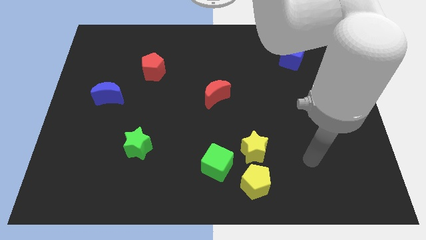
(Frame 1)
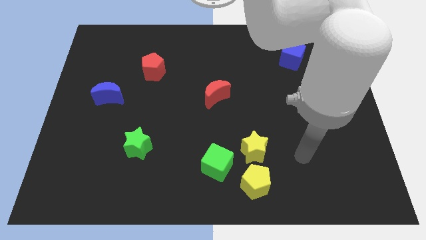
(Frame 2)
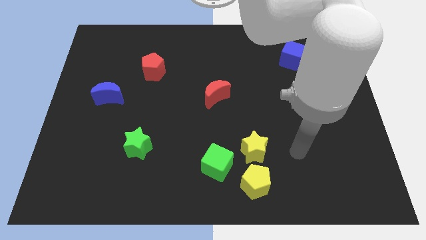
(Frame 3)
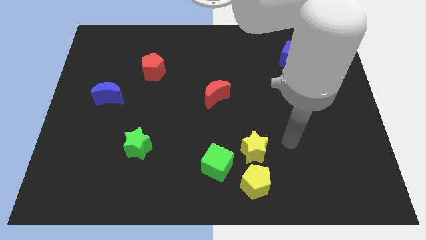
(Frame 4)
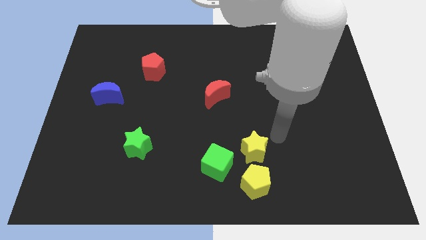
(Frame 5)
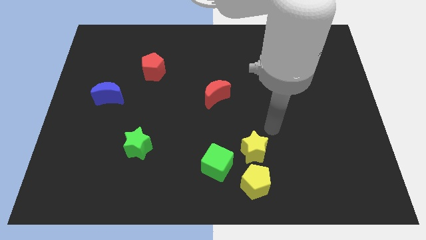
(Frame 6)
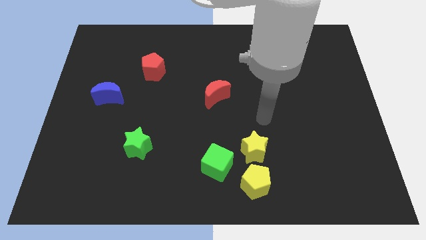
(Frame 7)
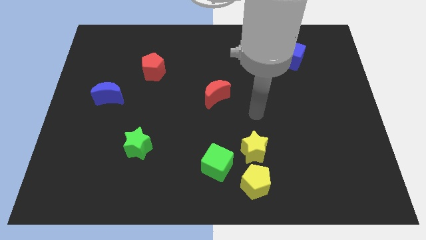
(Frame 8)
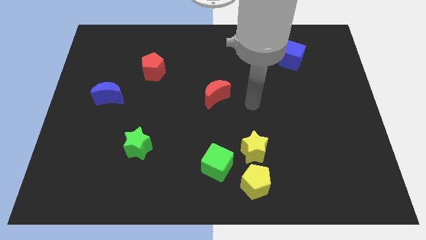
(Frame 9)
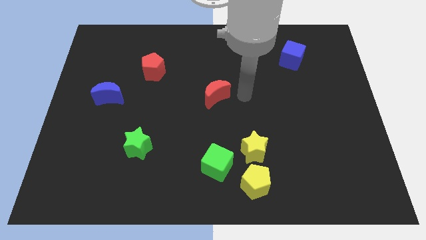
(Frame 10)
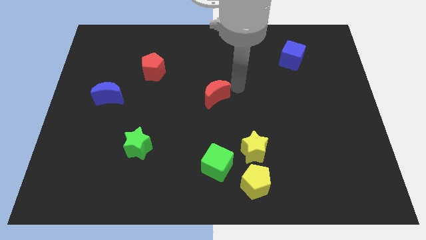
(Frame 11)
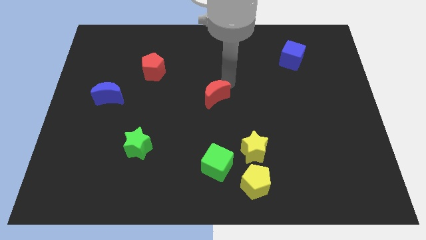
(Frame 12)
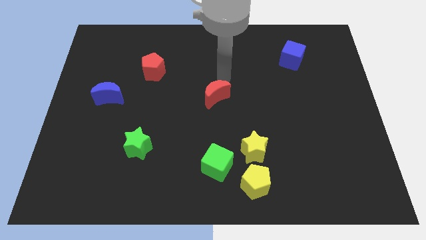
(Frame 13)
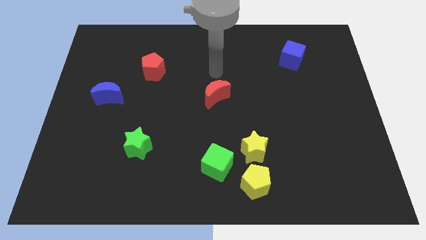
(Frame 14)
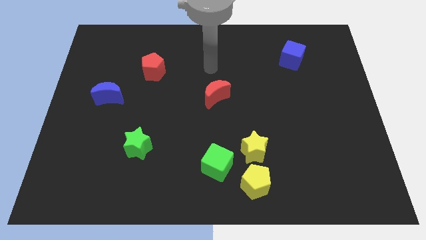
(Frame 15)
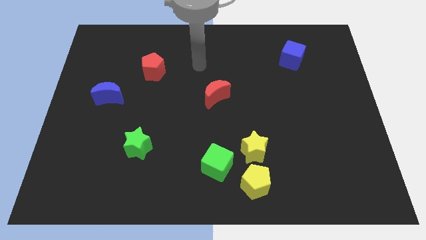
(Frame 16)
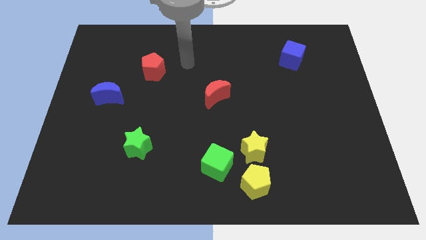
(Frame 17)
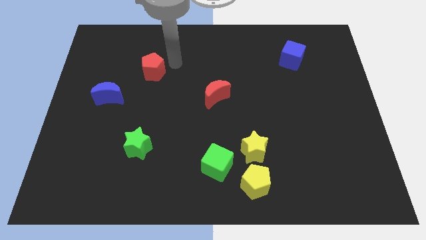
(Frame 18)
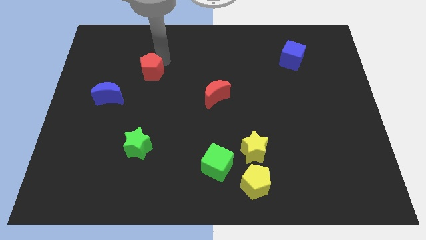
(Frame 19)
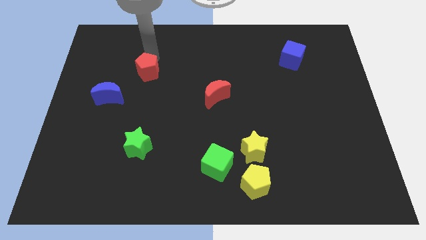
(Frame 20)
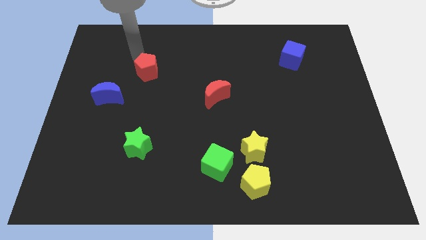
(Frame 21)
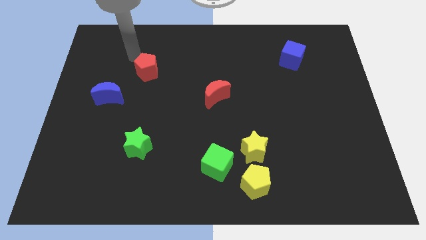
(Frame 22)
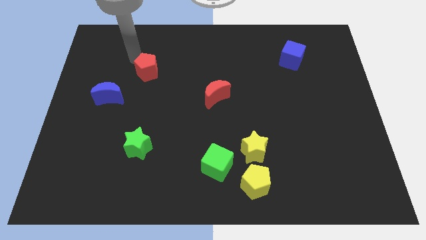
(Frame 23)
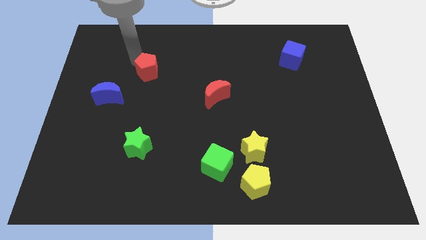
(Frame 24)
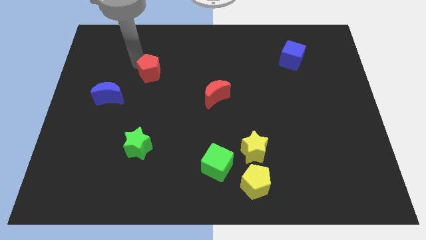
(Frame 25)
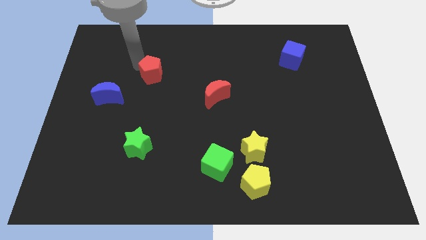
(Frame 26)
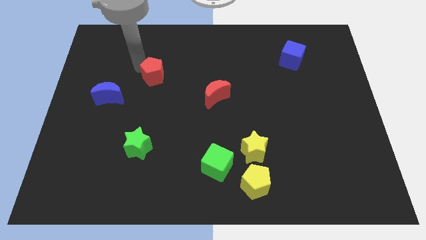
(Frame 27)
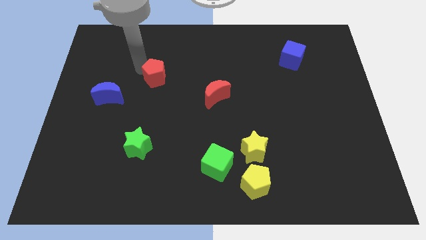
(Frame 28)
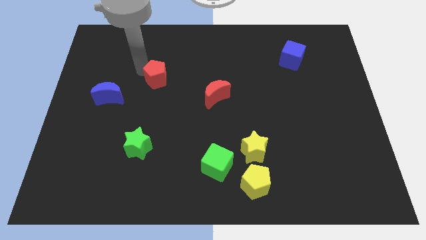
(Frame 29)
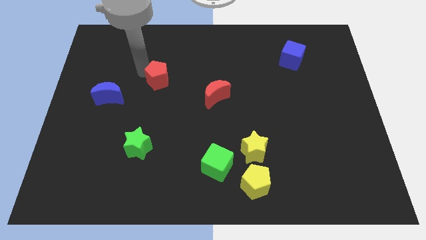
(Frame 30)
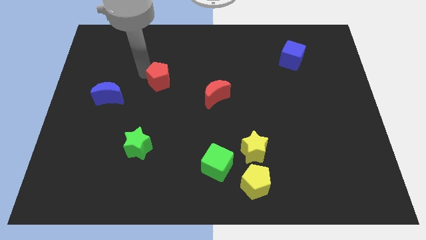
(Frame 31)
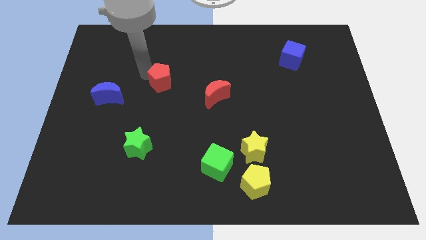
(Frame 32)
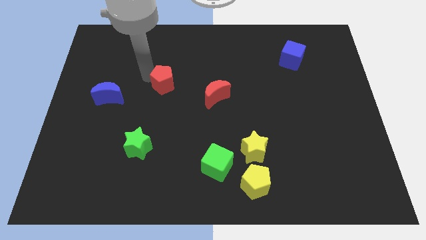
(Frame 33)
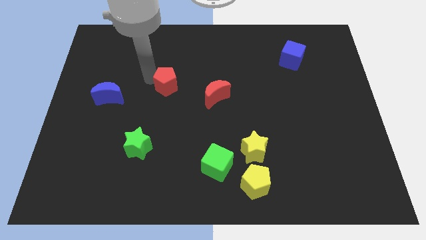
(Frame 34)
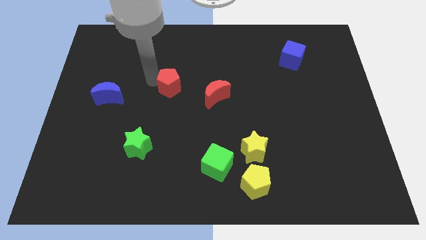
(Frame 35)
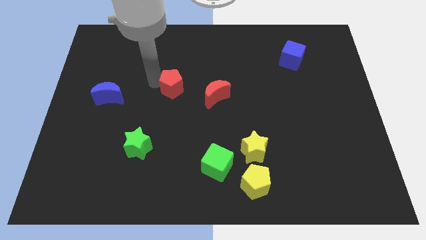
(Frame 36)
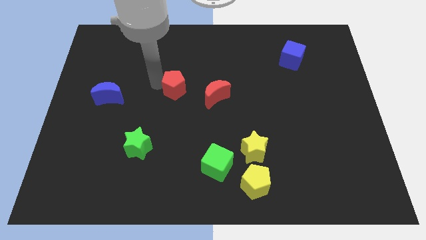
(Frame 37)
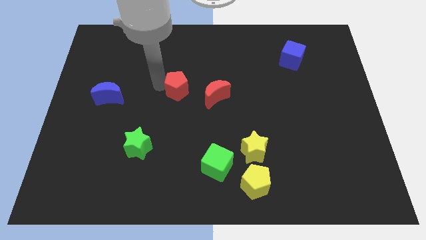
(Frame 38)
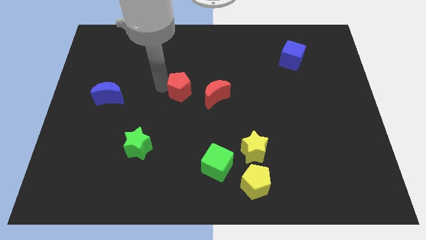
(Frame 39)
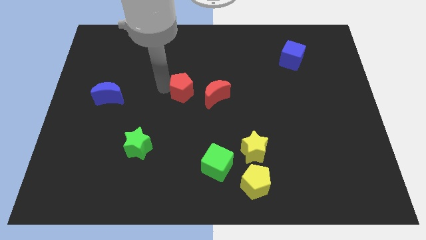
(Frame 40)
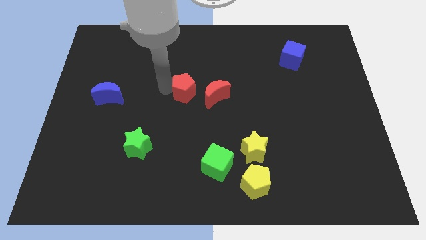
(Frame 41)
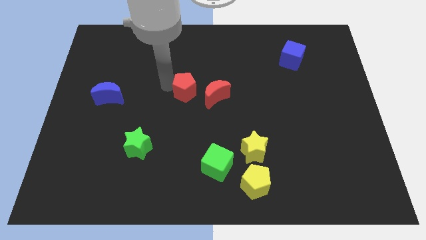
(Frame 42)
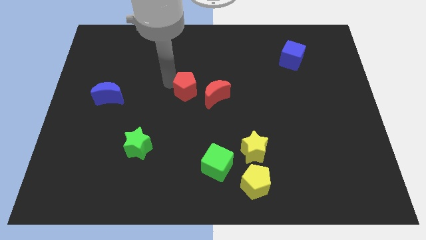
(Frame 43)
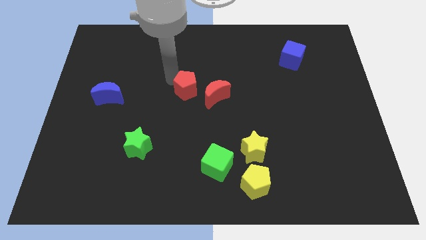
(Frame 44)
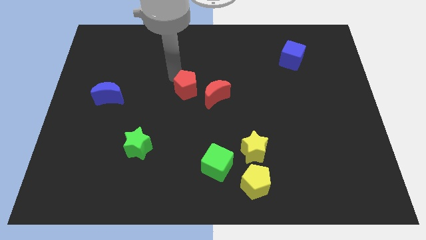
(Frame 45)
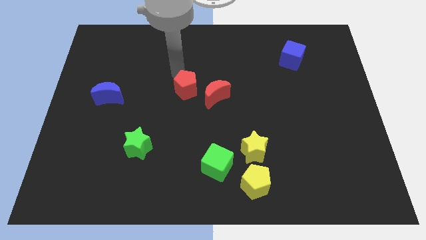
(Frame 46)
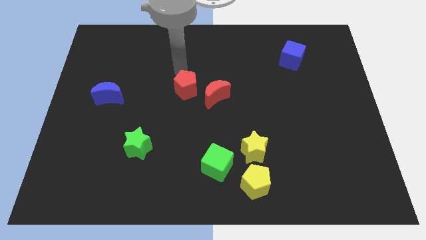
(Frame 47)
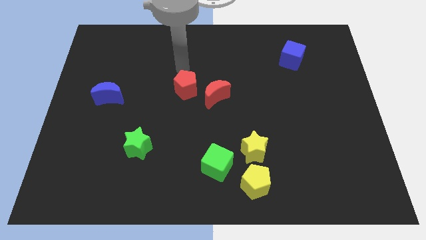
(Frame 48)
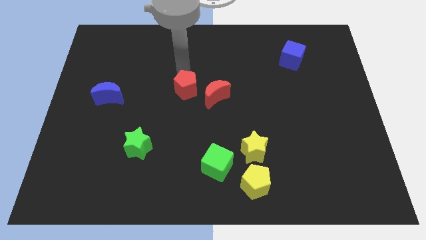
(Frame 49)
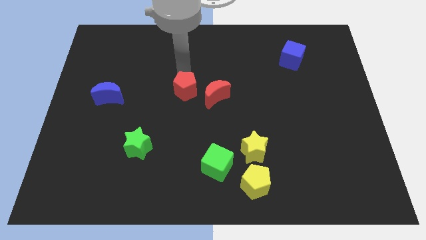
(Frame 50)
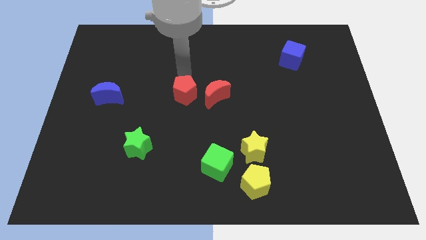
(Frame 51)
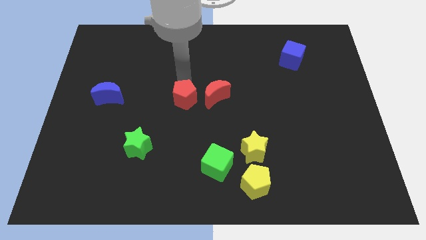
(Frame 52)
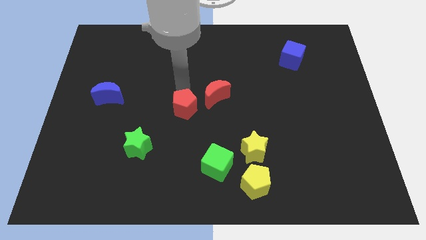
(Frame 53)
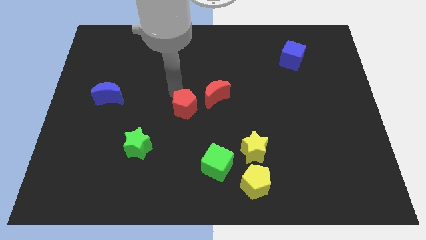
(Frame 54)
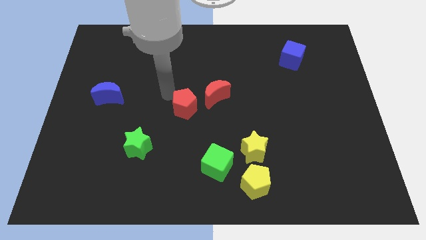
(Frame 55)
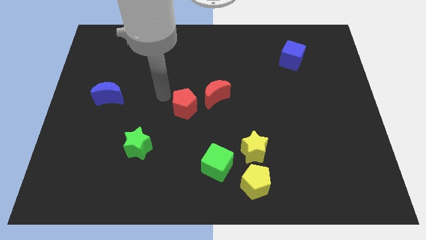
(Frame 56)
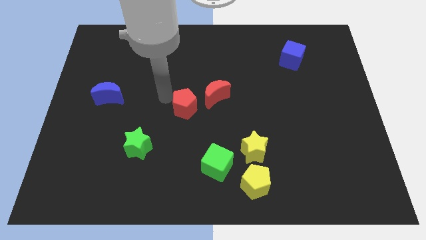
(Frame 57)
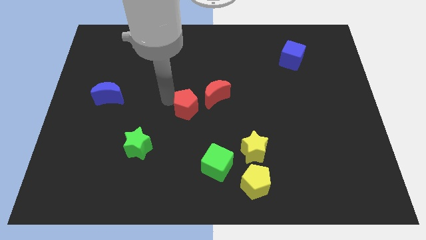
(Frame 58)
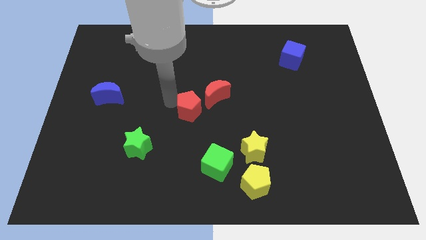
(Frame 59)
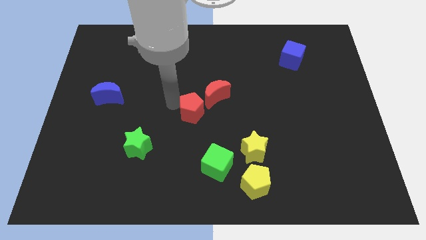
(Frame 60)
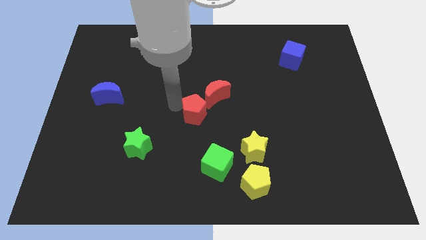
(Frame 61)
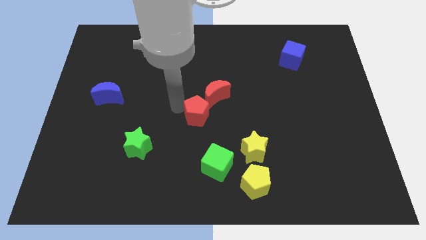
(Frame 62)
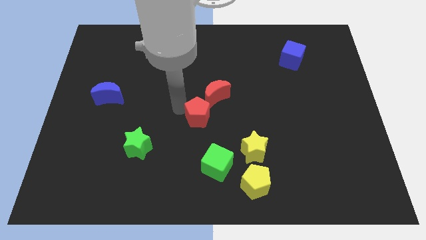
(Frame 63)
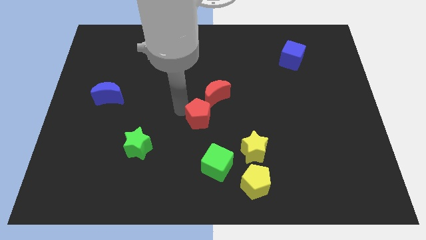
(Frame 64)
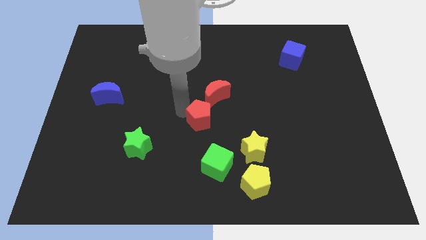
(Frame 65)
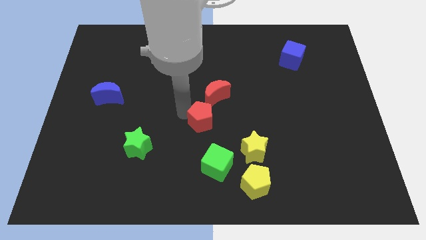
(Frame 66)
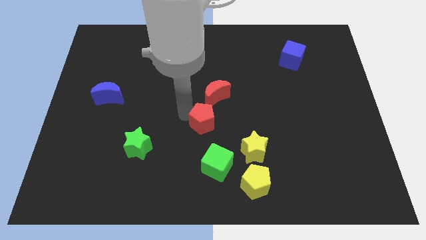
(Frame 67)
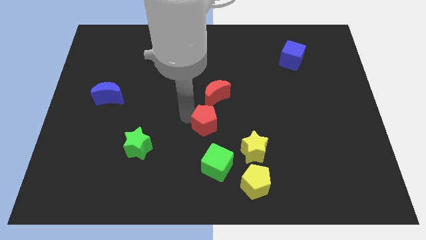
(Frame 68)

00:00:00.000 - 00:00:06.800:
put the red pentagon to the top left side of the yellow star
